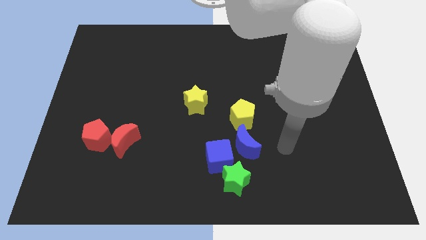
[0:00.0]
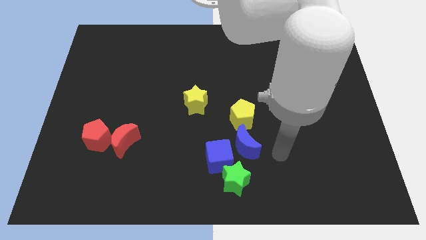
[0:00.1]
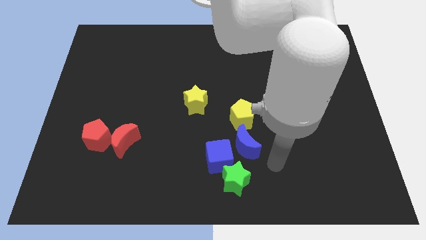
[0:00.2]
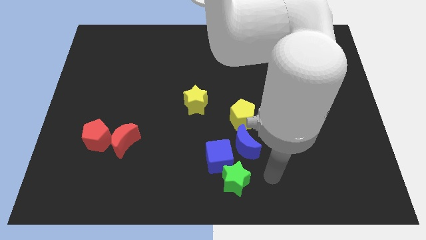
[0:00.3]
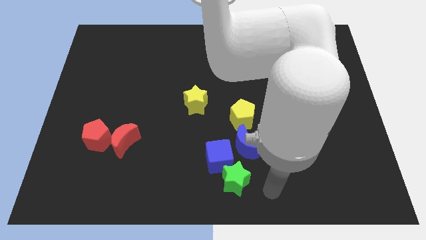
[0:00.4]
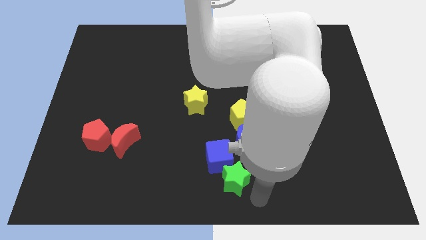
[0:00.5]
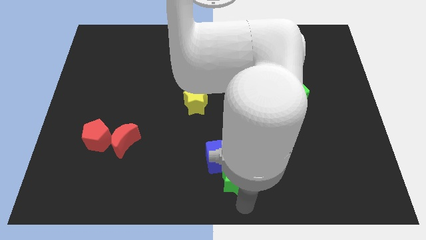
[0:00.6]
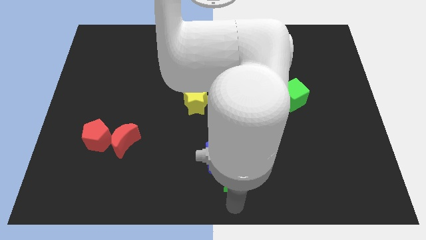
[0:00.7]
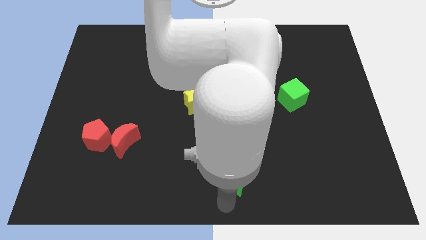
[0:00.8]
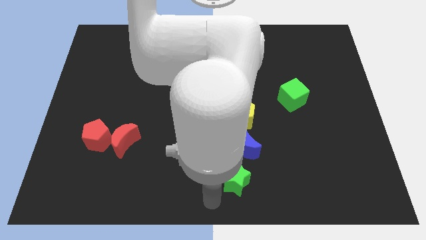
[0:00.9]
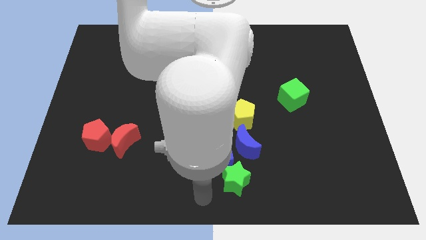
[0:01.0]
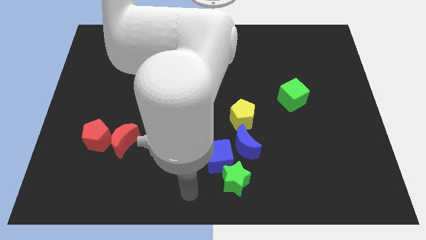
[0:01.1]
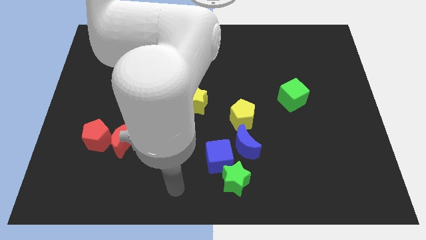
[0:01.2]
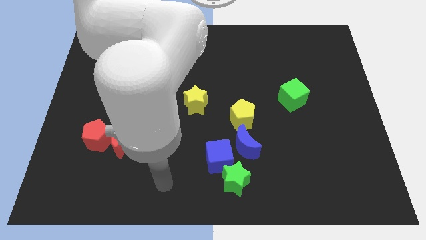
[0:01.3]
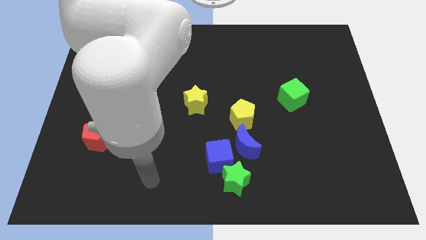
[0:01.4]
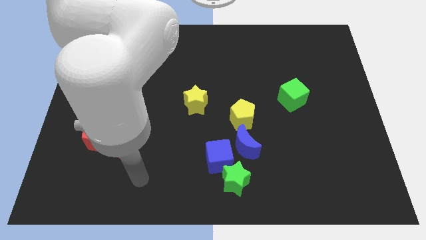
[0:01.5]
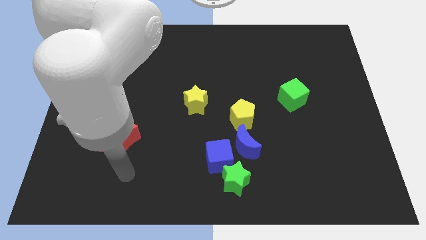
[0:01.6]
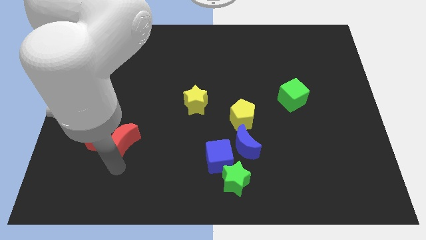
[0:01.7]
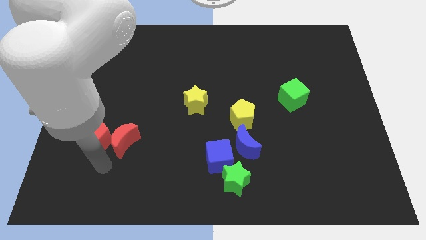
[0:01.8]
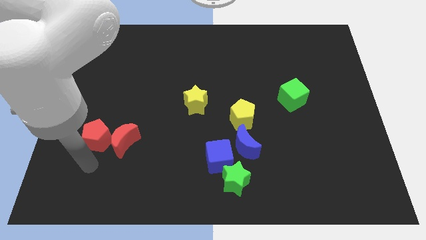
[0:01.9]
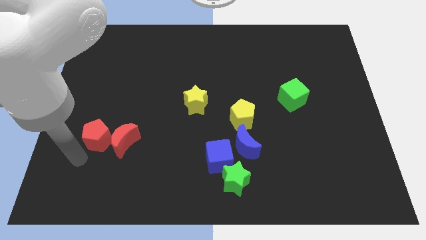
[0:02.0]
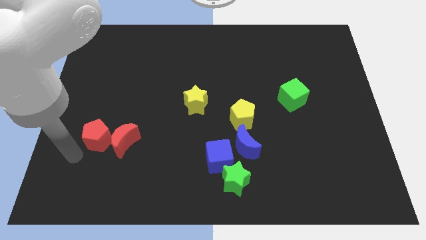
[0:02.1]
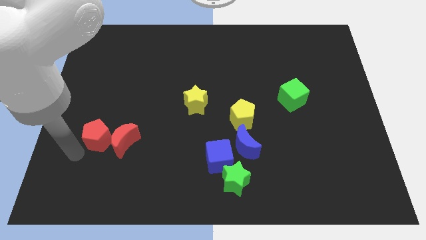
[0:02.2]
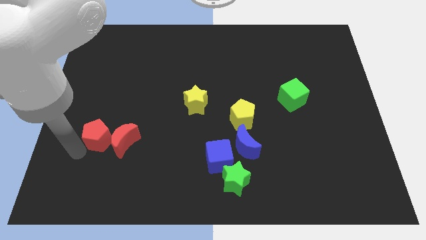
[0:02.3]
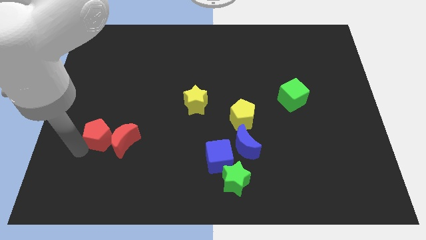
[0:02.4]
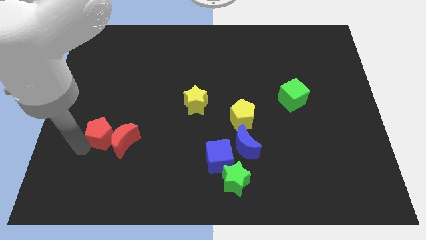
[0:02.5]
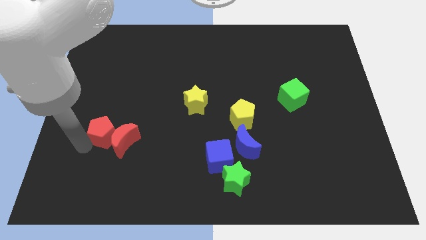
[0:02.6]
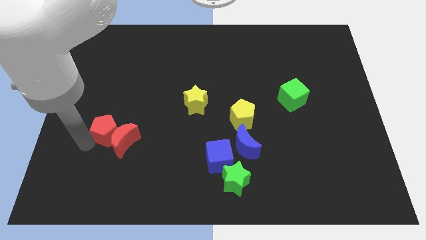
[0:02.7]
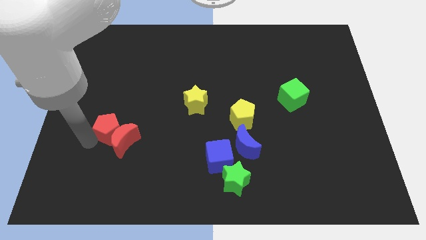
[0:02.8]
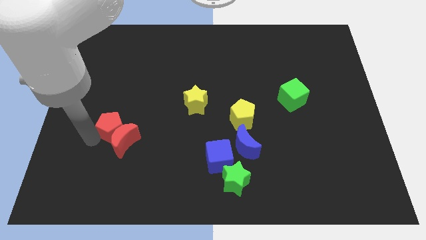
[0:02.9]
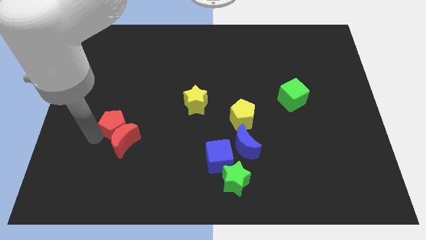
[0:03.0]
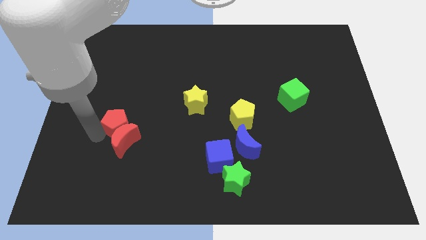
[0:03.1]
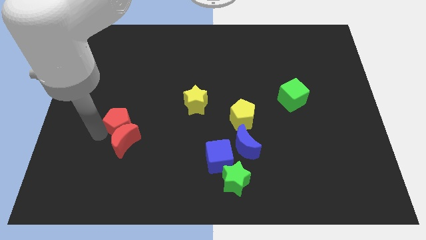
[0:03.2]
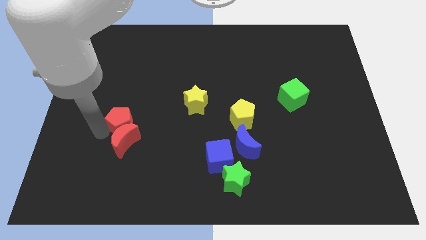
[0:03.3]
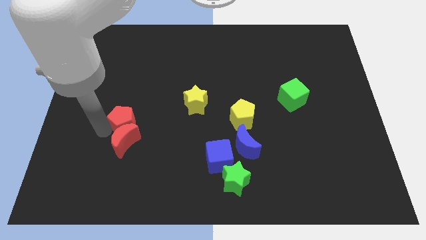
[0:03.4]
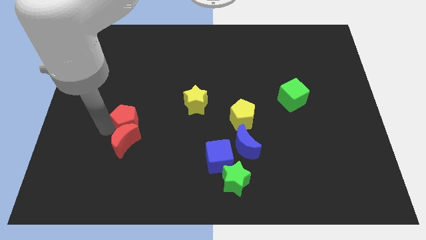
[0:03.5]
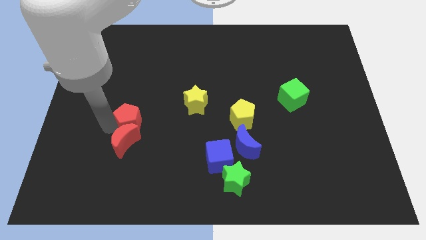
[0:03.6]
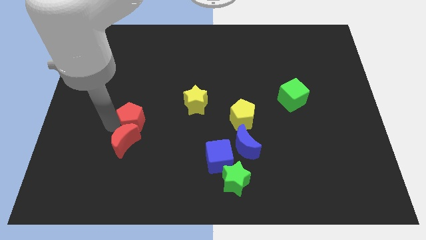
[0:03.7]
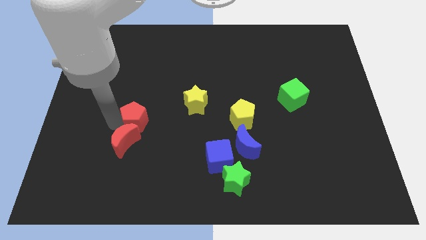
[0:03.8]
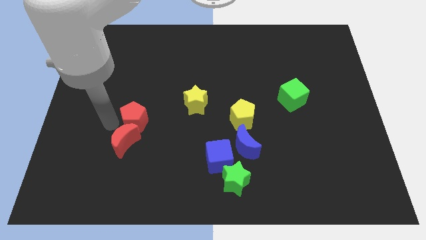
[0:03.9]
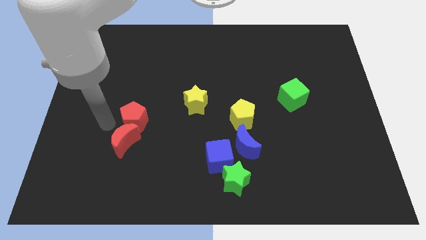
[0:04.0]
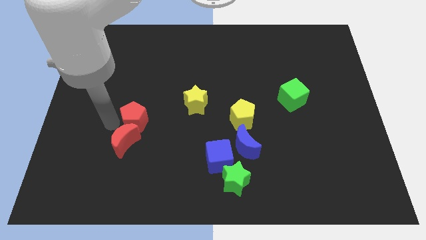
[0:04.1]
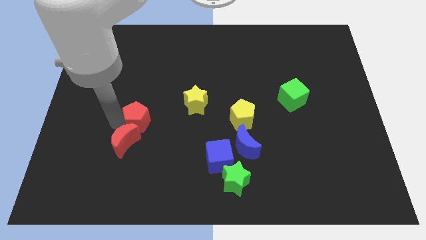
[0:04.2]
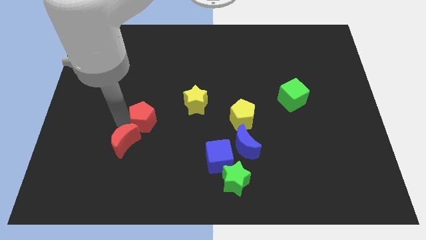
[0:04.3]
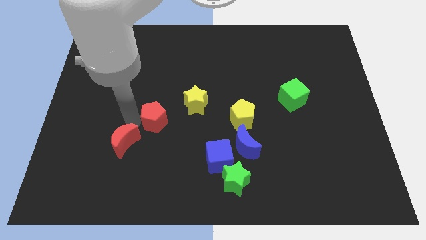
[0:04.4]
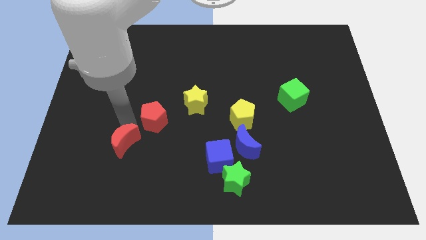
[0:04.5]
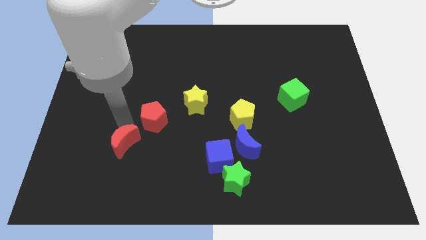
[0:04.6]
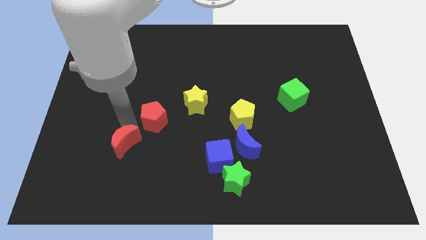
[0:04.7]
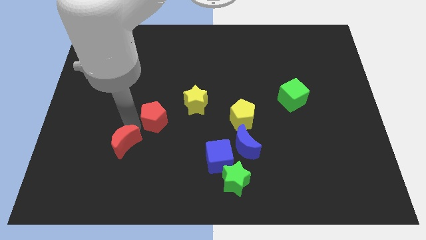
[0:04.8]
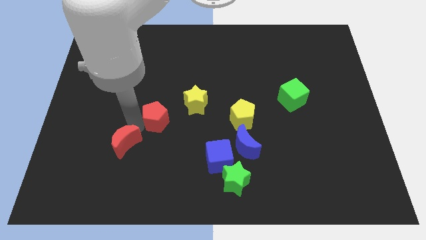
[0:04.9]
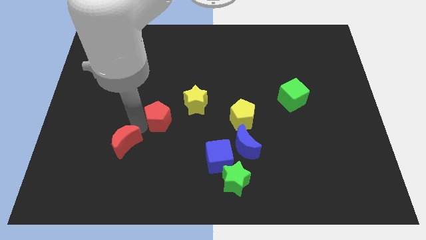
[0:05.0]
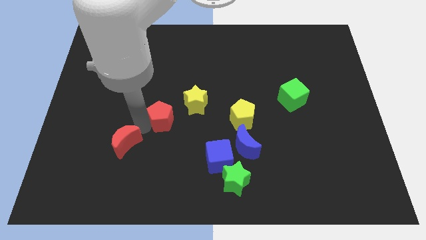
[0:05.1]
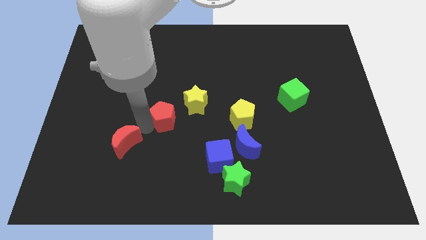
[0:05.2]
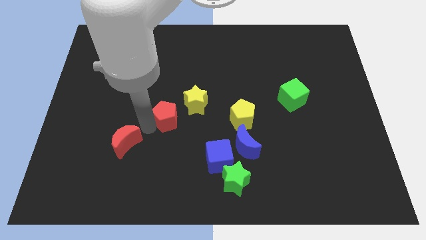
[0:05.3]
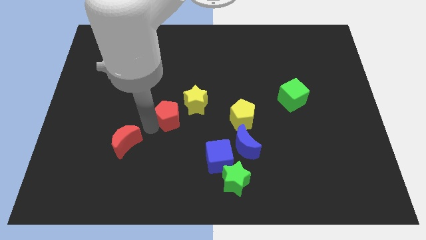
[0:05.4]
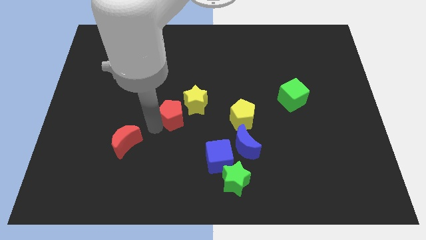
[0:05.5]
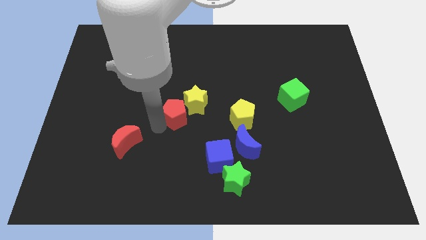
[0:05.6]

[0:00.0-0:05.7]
push the red pentagon close to the yellow star

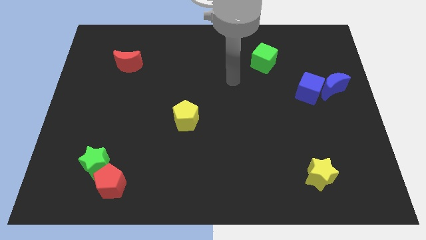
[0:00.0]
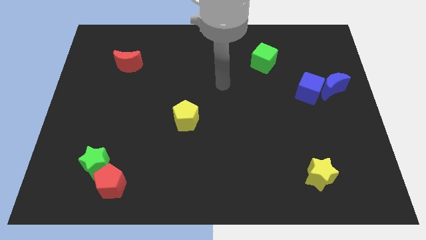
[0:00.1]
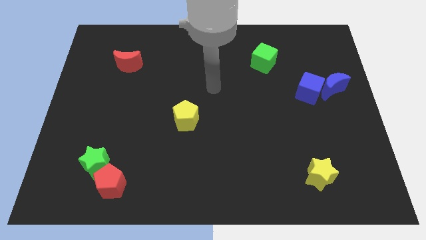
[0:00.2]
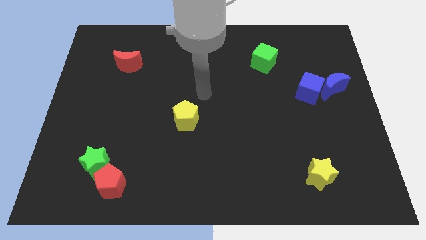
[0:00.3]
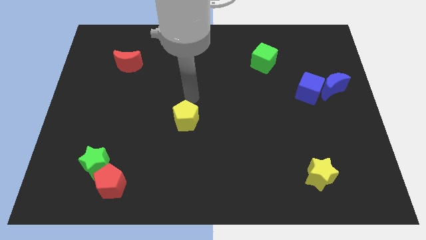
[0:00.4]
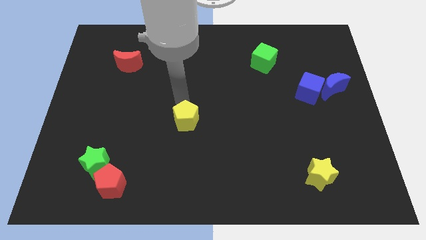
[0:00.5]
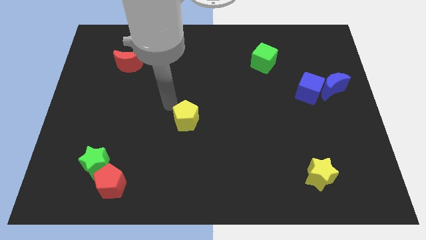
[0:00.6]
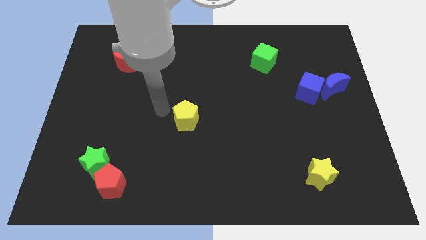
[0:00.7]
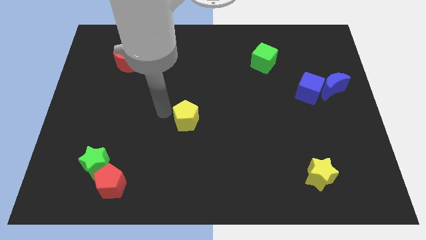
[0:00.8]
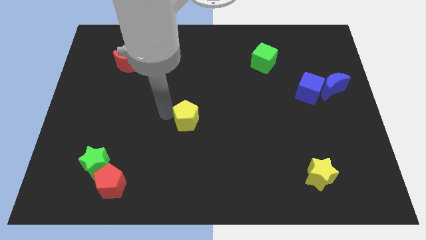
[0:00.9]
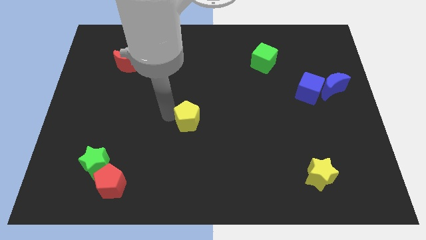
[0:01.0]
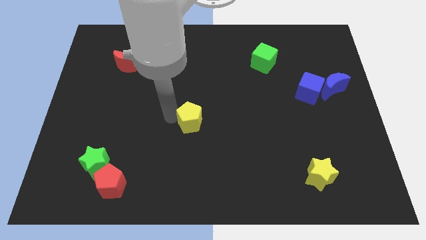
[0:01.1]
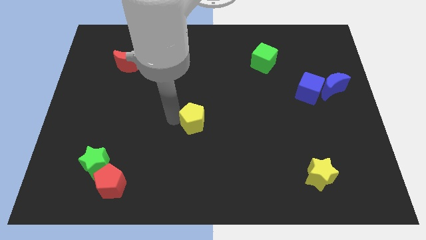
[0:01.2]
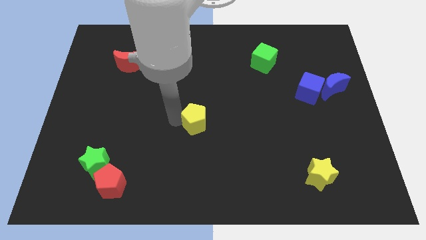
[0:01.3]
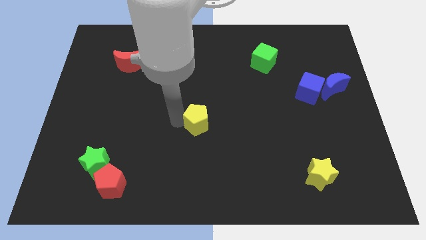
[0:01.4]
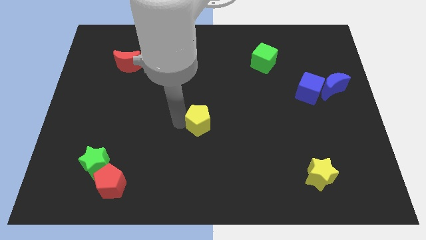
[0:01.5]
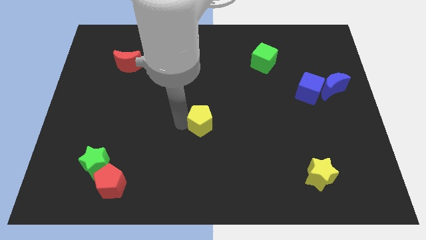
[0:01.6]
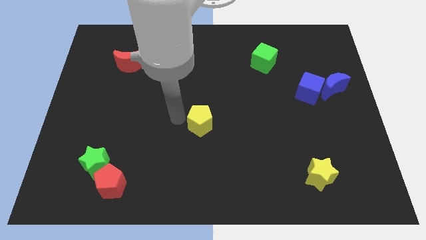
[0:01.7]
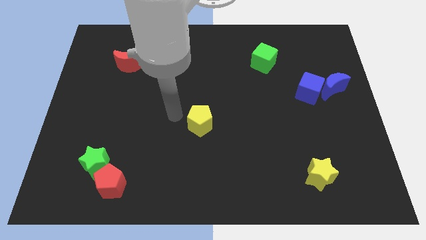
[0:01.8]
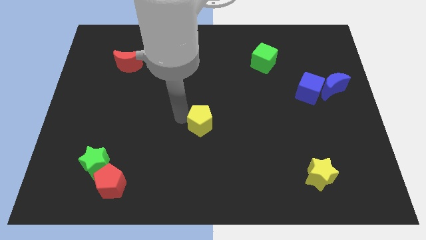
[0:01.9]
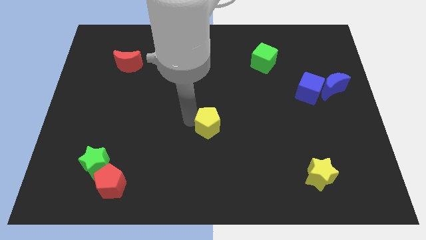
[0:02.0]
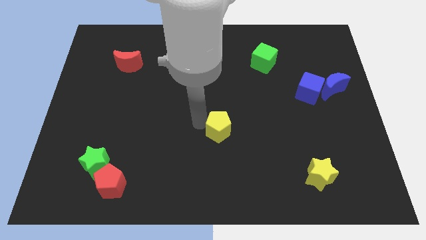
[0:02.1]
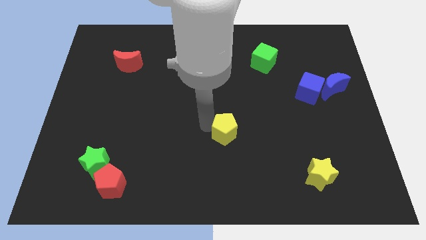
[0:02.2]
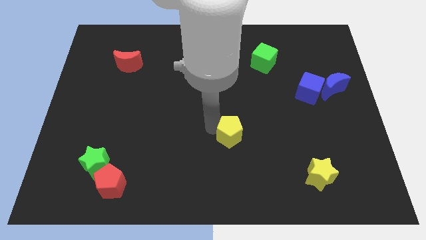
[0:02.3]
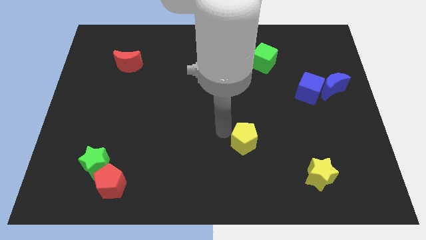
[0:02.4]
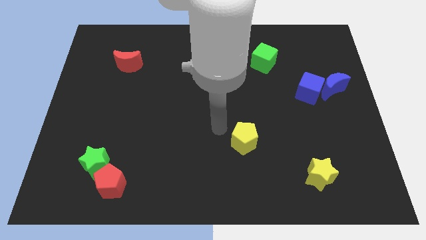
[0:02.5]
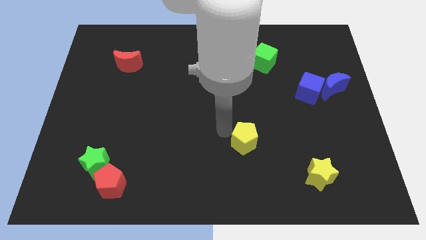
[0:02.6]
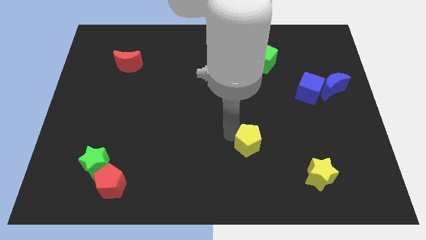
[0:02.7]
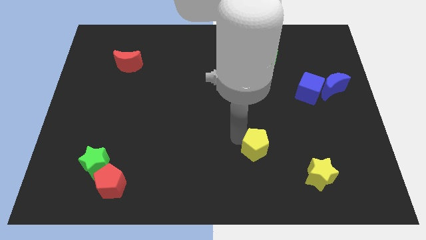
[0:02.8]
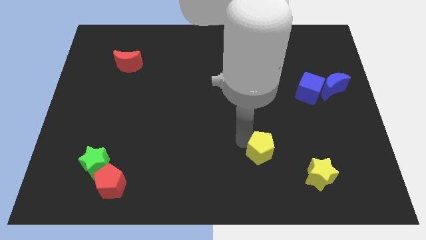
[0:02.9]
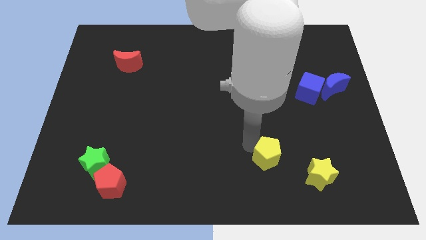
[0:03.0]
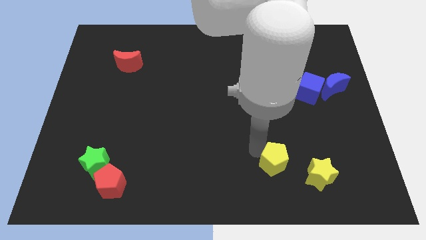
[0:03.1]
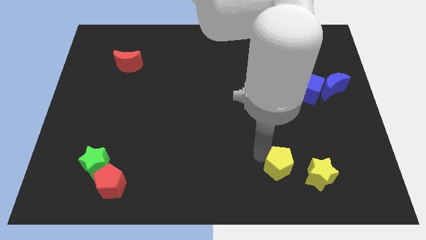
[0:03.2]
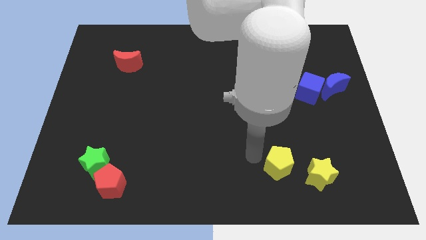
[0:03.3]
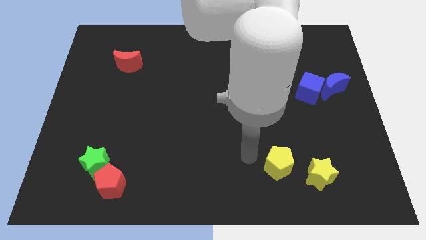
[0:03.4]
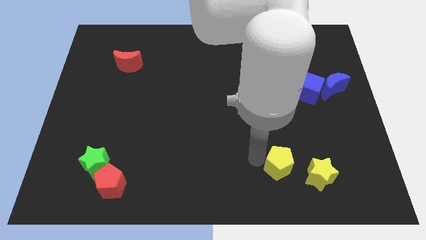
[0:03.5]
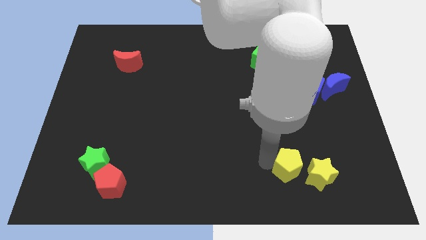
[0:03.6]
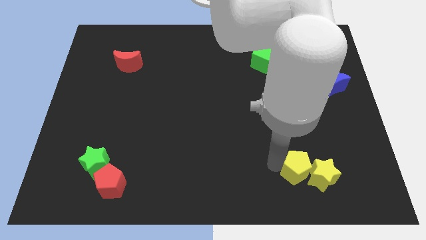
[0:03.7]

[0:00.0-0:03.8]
move the yellow pentagon towards the yellow star
